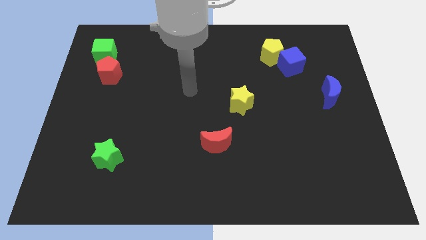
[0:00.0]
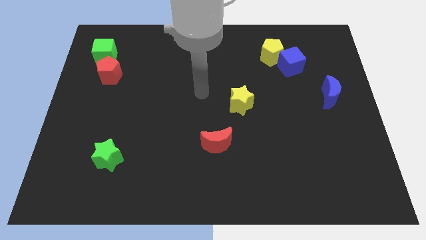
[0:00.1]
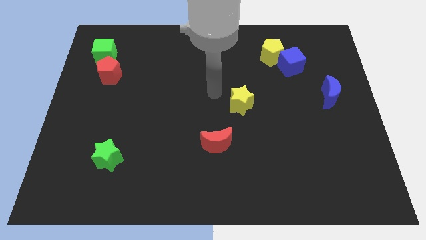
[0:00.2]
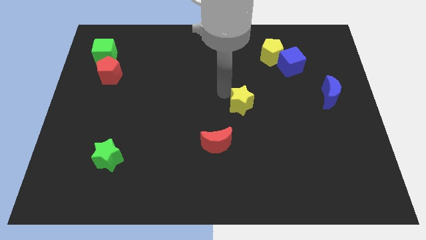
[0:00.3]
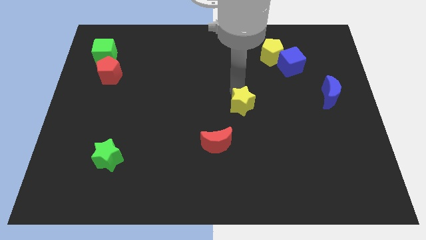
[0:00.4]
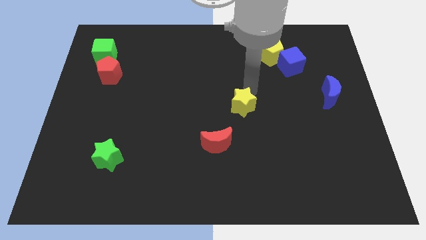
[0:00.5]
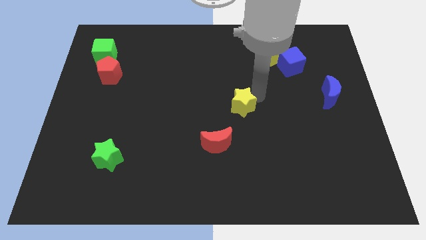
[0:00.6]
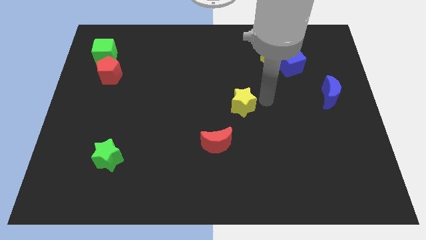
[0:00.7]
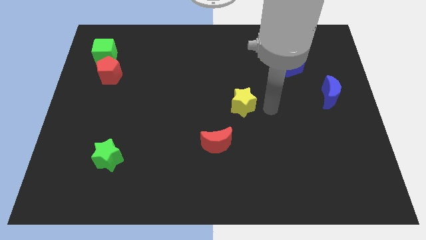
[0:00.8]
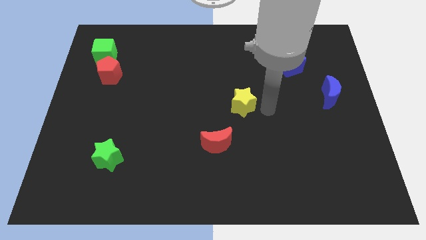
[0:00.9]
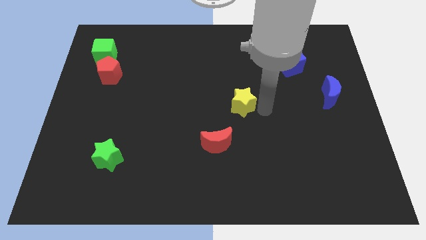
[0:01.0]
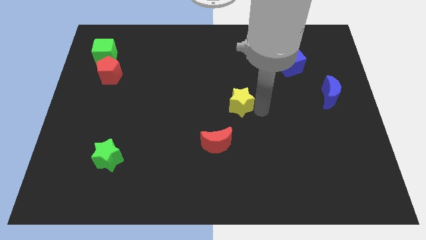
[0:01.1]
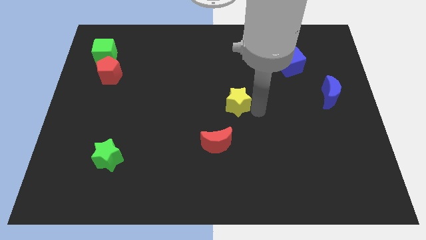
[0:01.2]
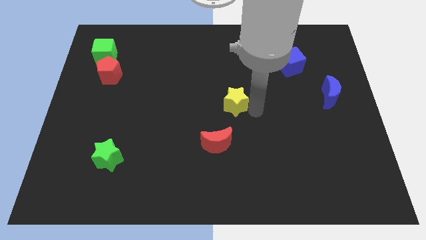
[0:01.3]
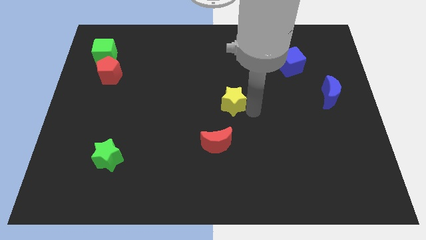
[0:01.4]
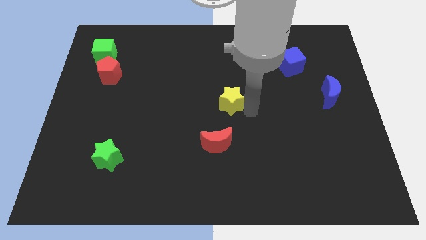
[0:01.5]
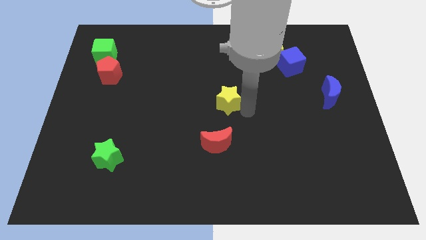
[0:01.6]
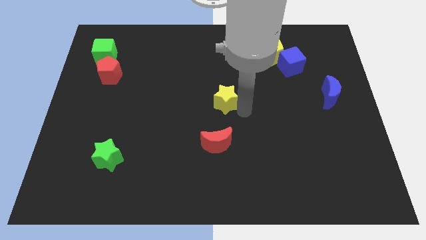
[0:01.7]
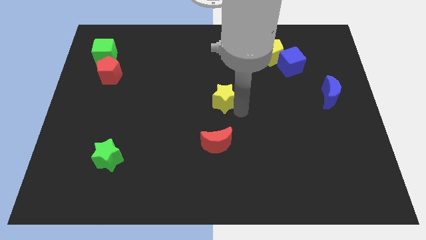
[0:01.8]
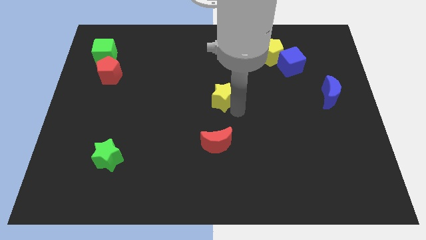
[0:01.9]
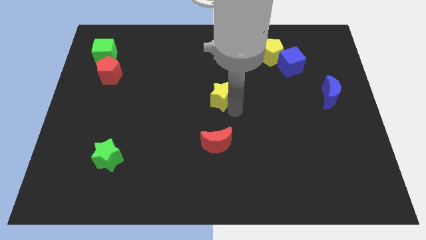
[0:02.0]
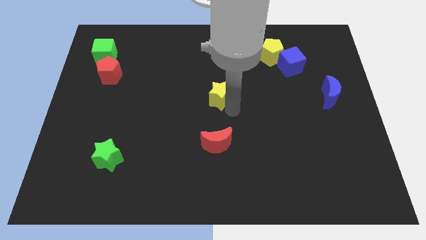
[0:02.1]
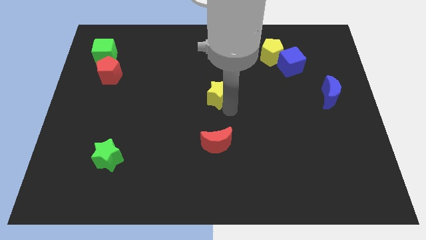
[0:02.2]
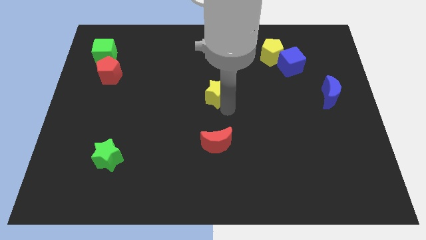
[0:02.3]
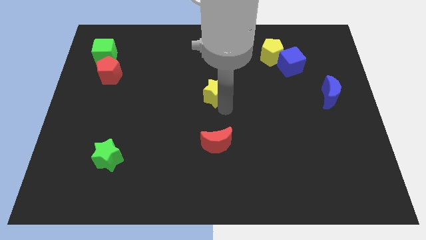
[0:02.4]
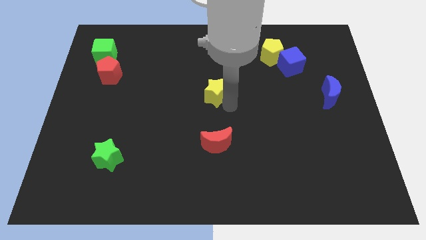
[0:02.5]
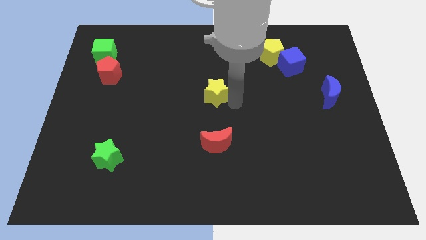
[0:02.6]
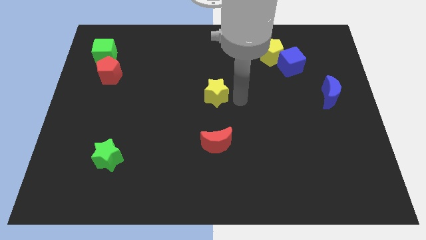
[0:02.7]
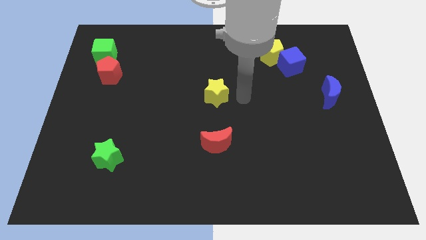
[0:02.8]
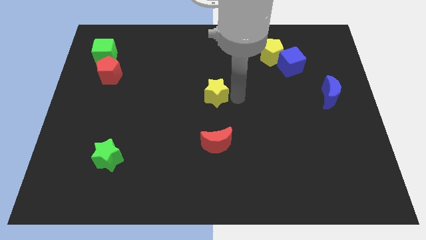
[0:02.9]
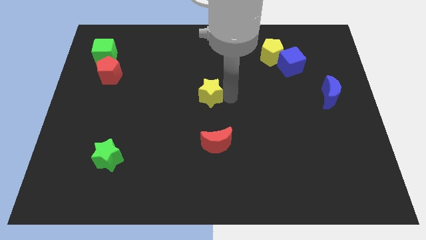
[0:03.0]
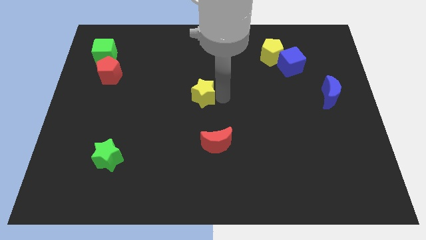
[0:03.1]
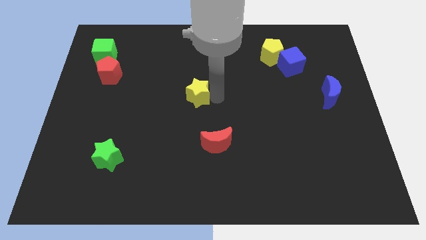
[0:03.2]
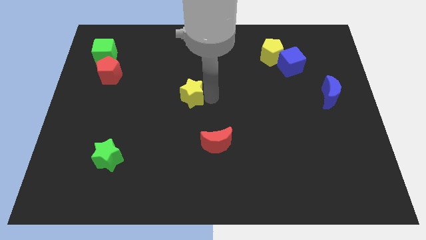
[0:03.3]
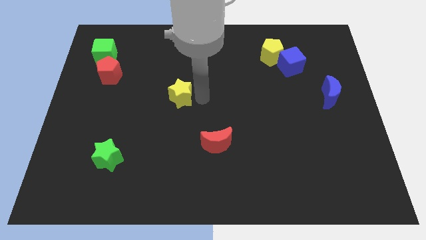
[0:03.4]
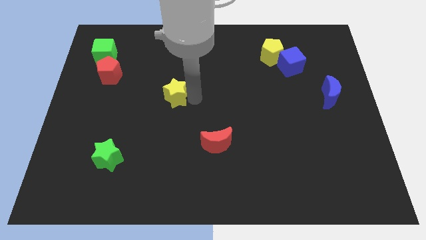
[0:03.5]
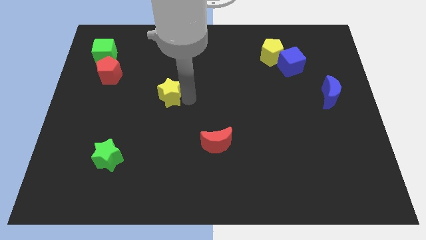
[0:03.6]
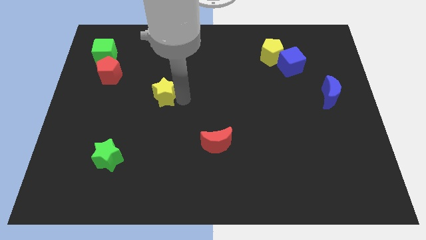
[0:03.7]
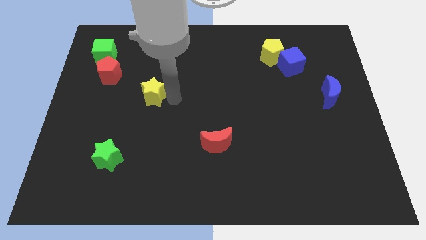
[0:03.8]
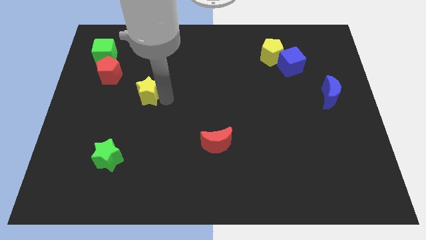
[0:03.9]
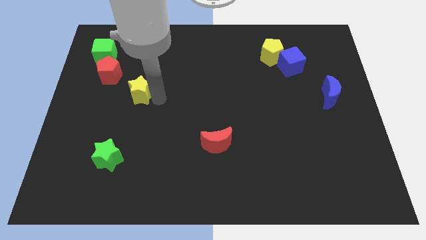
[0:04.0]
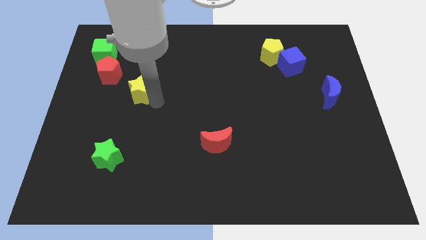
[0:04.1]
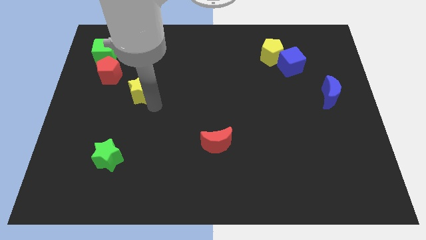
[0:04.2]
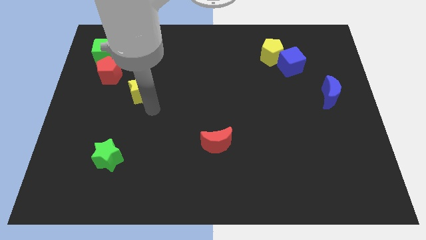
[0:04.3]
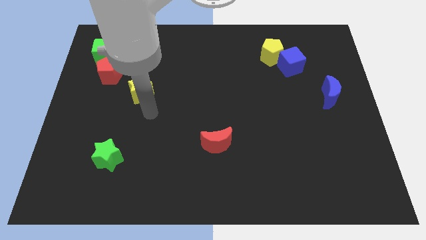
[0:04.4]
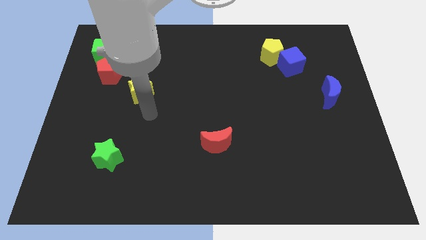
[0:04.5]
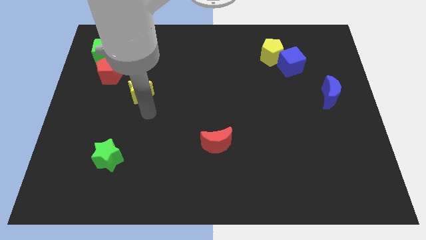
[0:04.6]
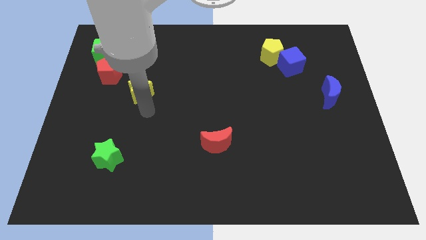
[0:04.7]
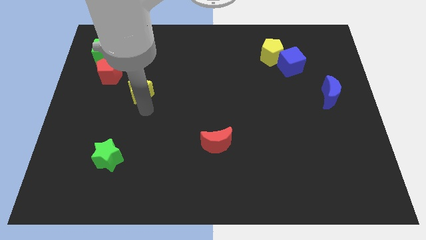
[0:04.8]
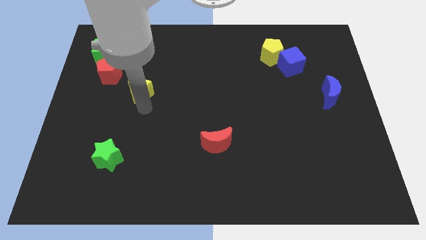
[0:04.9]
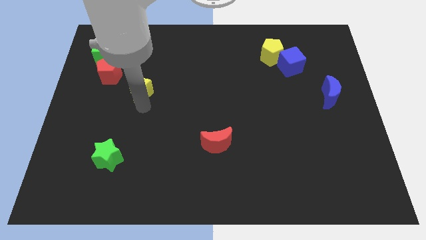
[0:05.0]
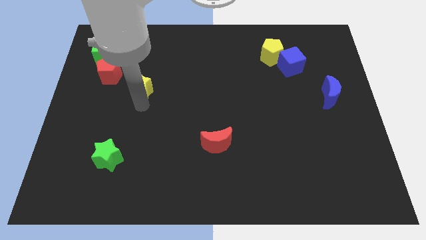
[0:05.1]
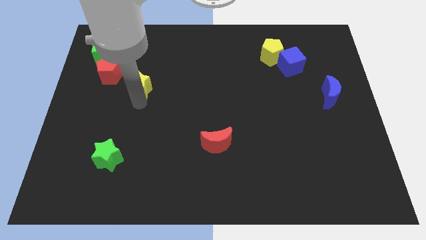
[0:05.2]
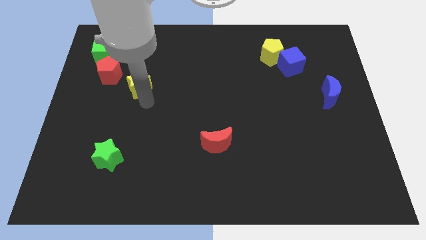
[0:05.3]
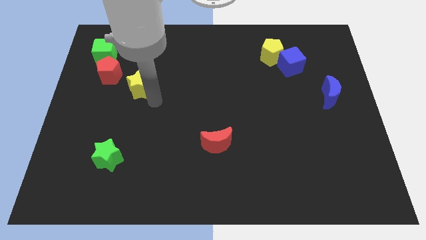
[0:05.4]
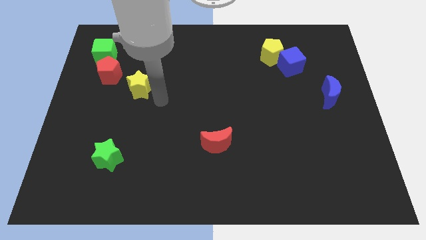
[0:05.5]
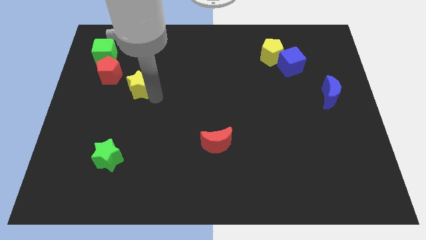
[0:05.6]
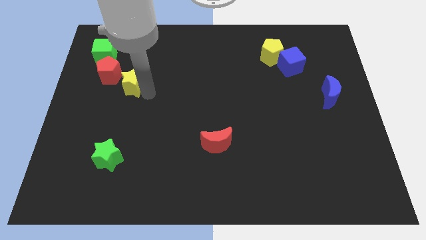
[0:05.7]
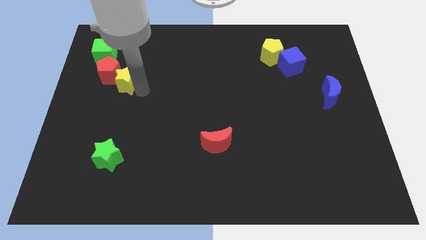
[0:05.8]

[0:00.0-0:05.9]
push the yellow star next to the red pentagon

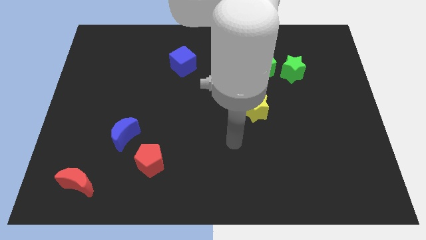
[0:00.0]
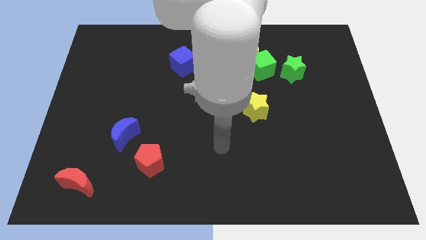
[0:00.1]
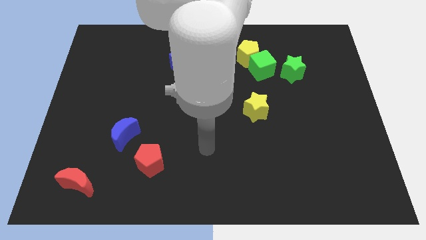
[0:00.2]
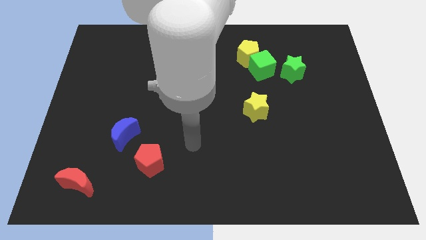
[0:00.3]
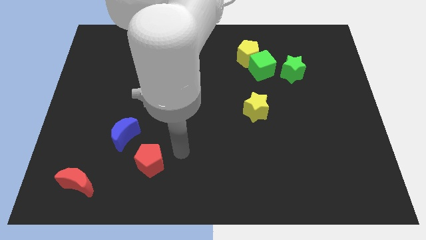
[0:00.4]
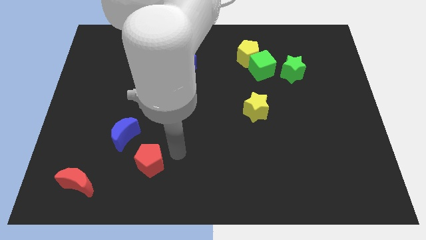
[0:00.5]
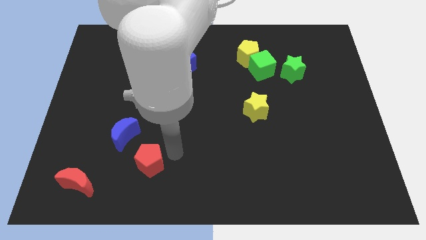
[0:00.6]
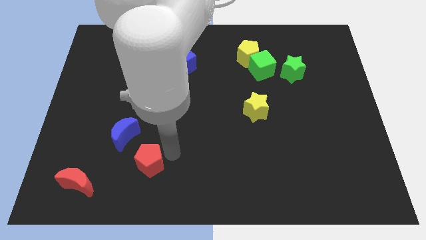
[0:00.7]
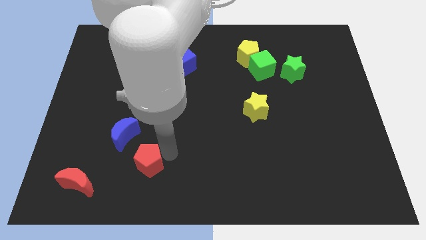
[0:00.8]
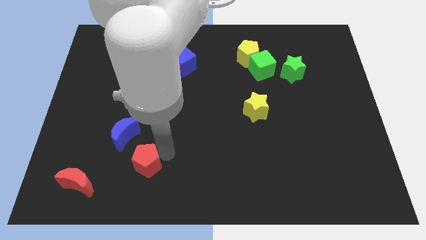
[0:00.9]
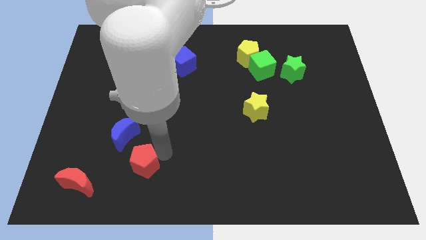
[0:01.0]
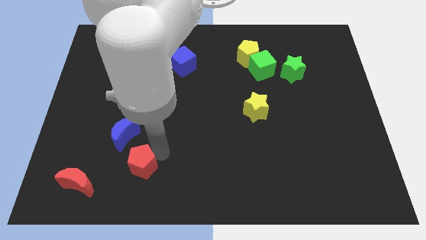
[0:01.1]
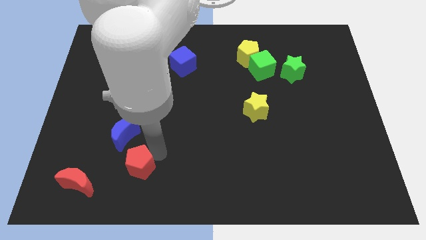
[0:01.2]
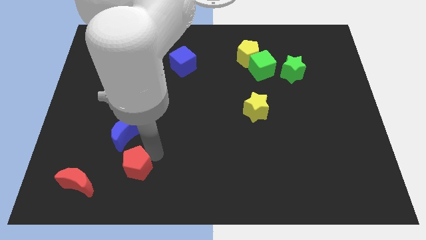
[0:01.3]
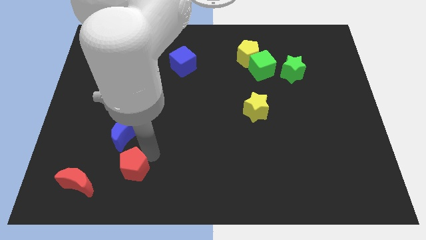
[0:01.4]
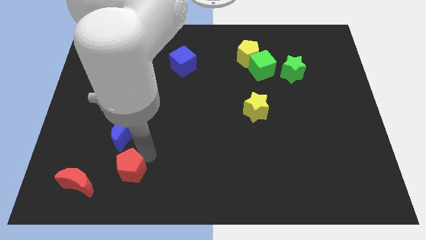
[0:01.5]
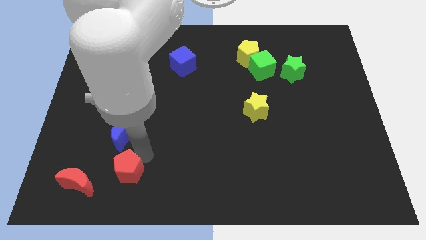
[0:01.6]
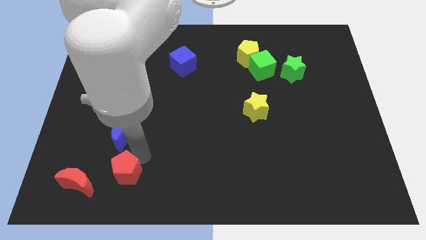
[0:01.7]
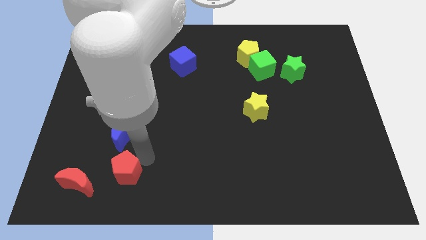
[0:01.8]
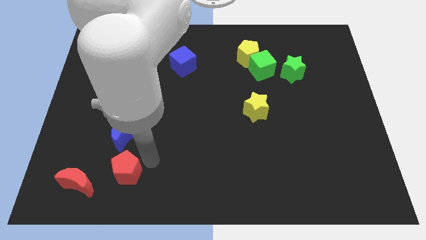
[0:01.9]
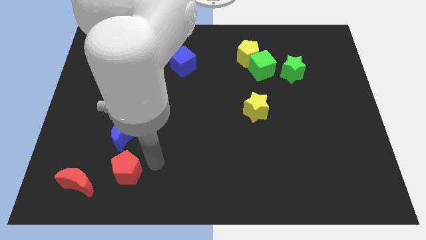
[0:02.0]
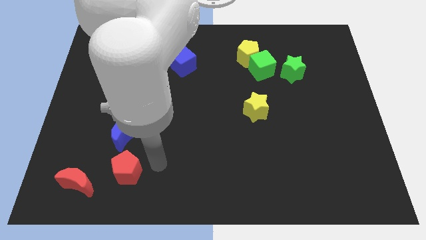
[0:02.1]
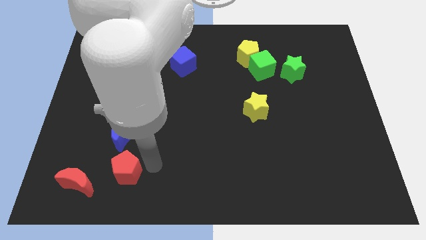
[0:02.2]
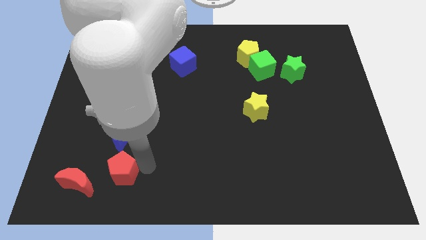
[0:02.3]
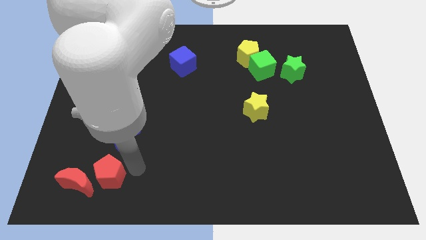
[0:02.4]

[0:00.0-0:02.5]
push the red pentagon next to the red moon
